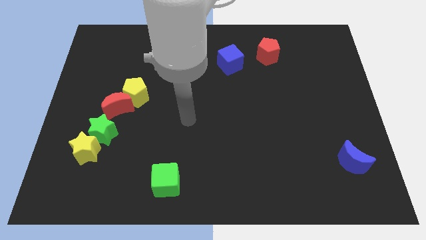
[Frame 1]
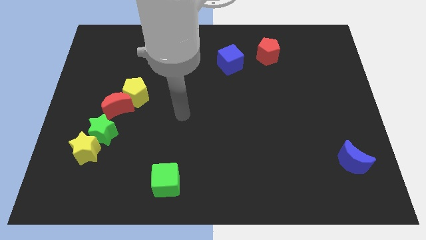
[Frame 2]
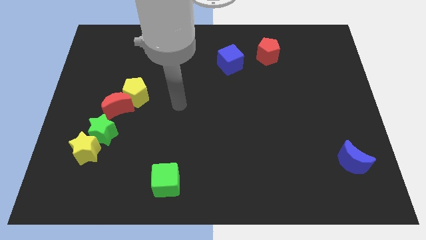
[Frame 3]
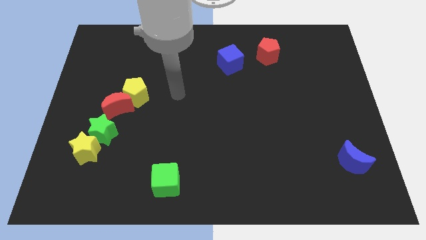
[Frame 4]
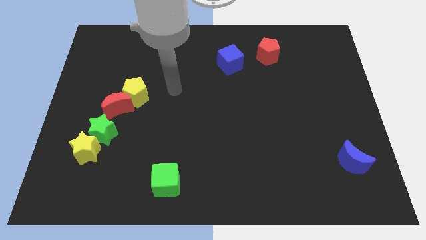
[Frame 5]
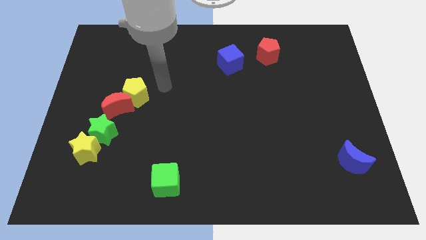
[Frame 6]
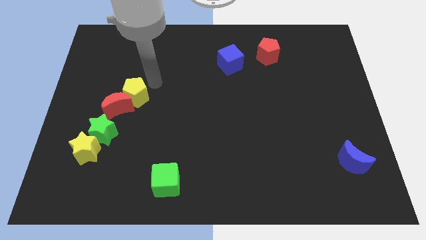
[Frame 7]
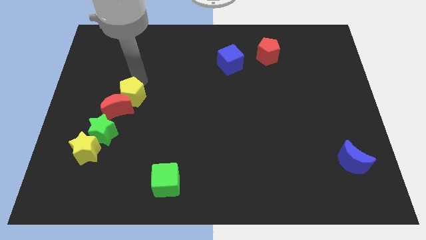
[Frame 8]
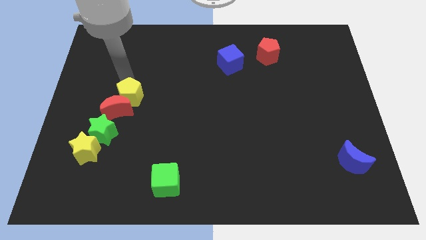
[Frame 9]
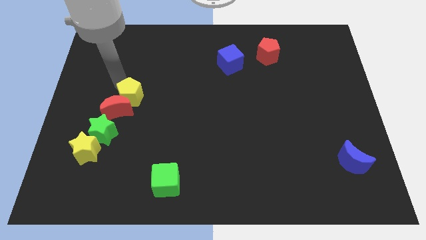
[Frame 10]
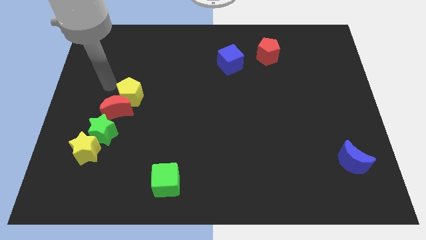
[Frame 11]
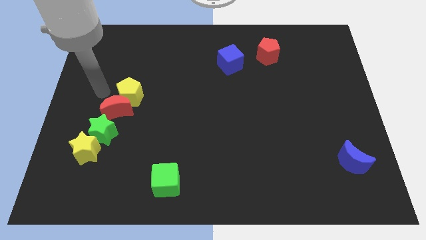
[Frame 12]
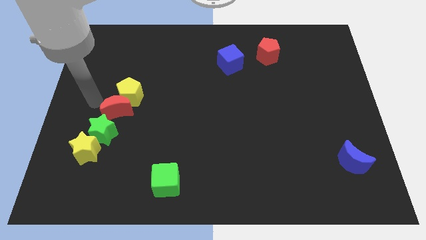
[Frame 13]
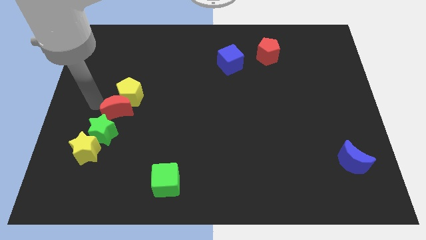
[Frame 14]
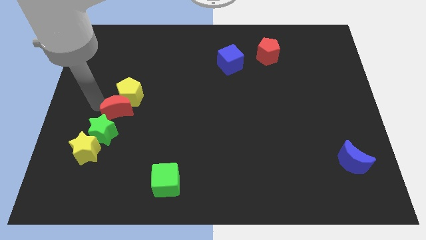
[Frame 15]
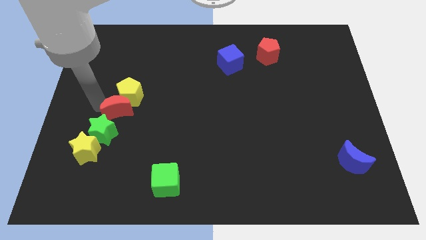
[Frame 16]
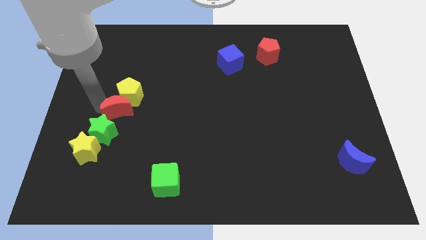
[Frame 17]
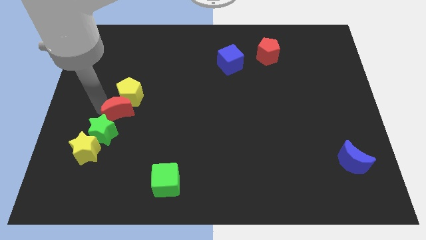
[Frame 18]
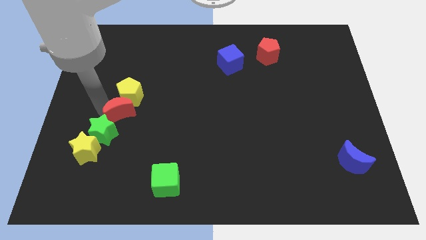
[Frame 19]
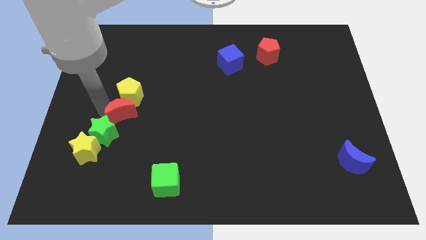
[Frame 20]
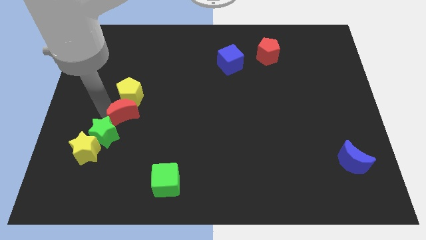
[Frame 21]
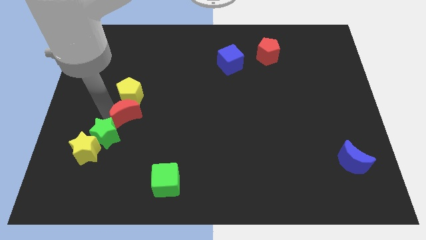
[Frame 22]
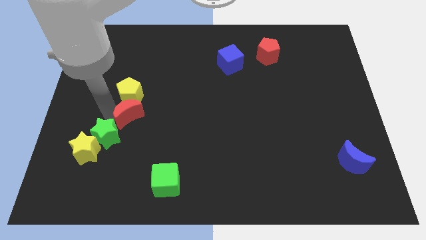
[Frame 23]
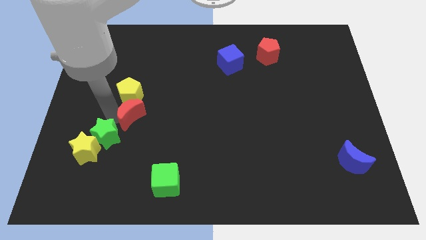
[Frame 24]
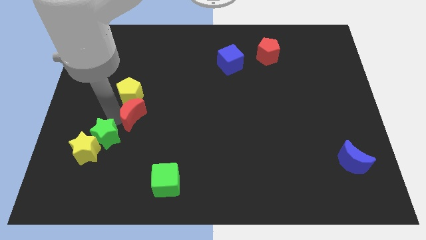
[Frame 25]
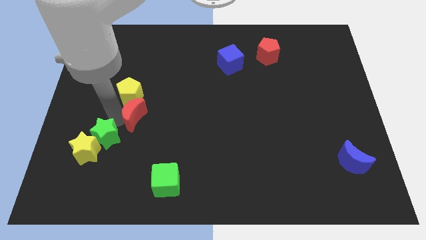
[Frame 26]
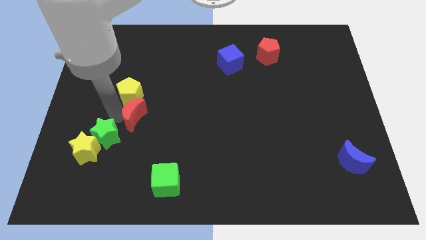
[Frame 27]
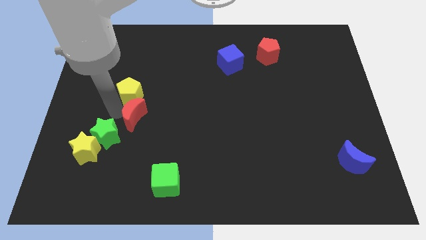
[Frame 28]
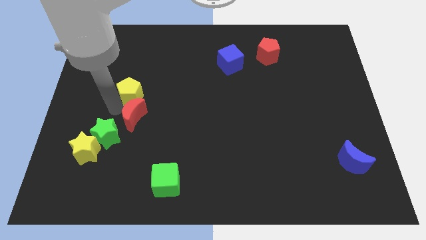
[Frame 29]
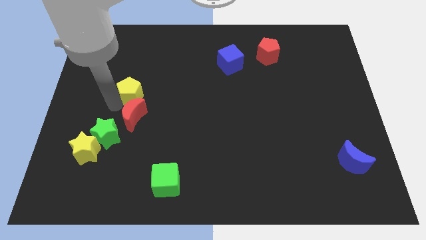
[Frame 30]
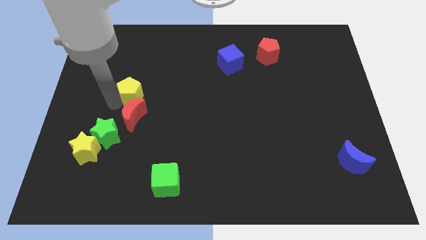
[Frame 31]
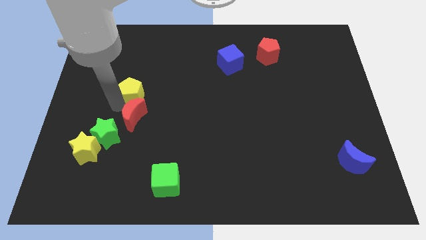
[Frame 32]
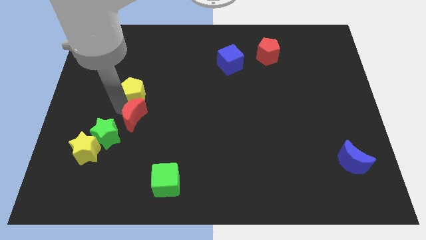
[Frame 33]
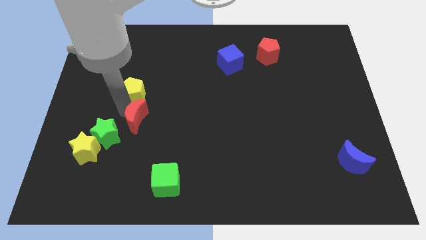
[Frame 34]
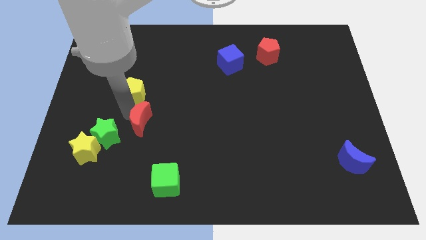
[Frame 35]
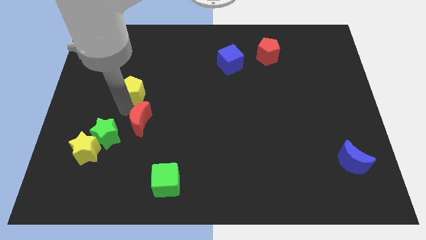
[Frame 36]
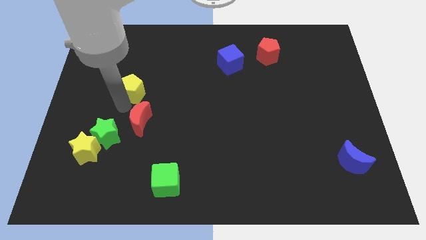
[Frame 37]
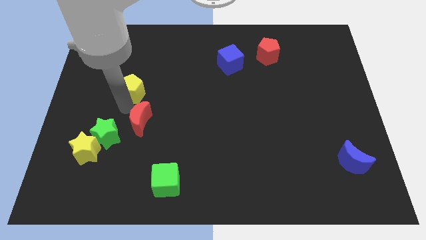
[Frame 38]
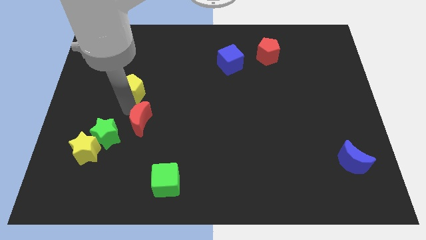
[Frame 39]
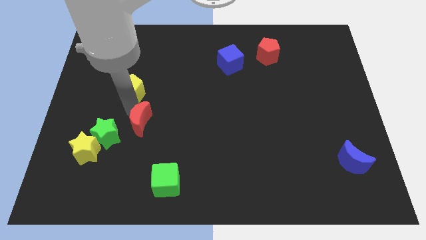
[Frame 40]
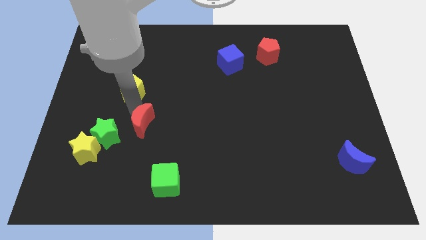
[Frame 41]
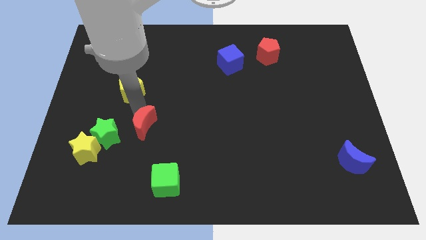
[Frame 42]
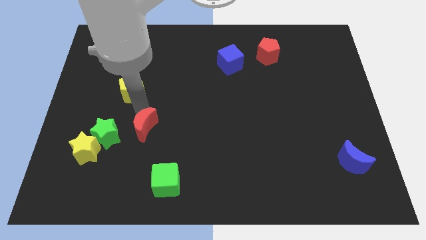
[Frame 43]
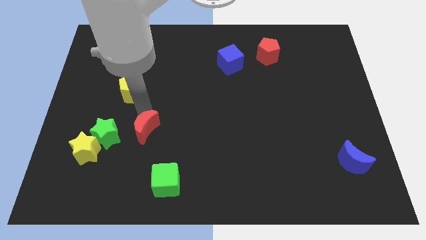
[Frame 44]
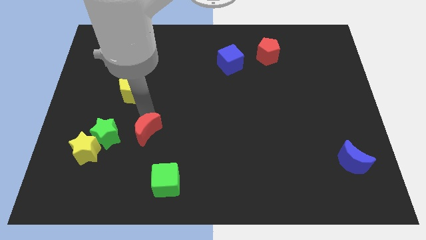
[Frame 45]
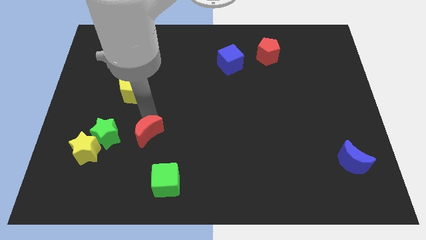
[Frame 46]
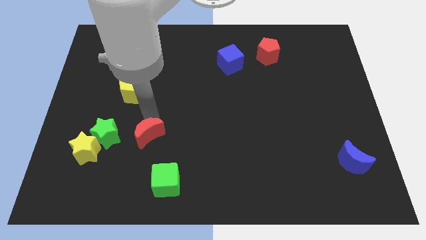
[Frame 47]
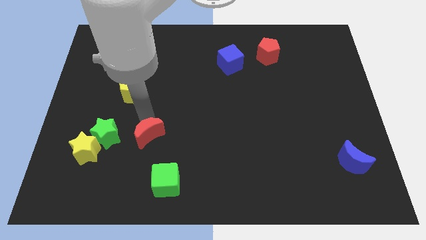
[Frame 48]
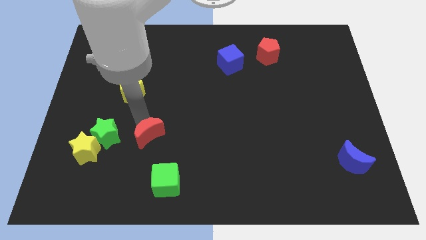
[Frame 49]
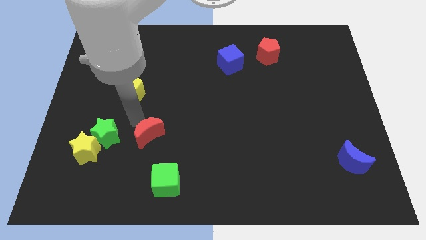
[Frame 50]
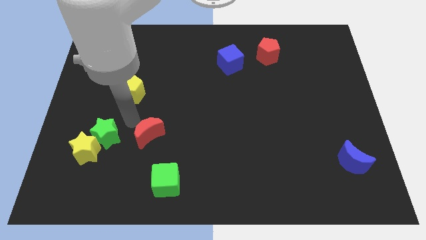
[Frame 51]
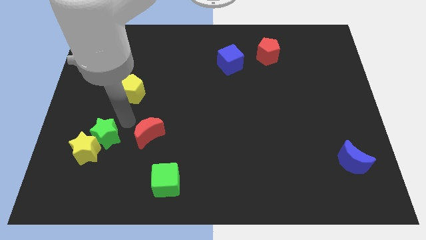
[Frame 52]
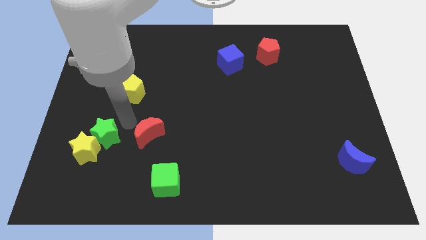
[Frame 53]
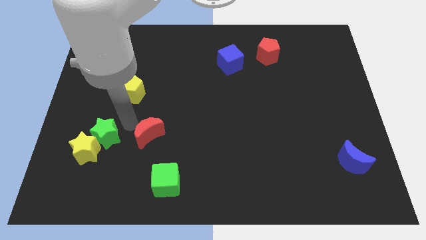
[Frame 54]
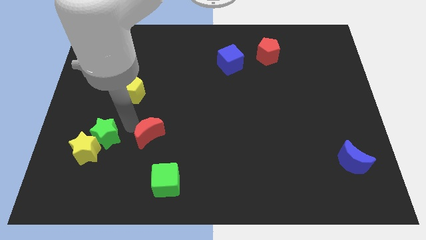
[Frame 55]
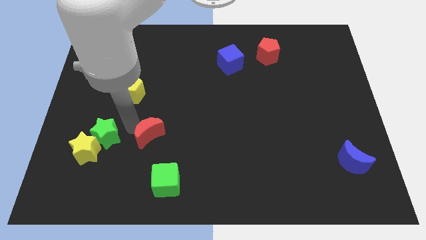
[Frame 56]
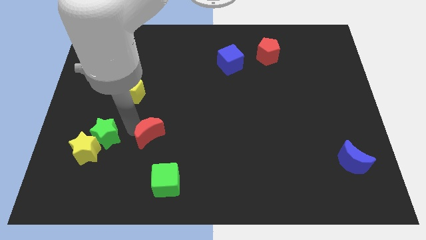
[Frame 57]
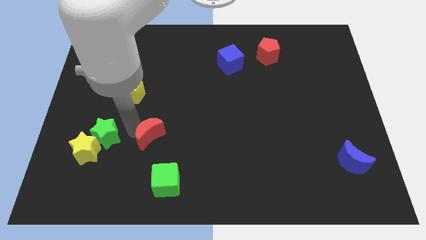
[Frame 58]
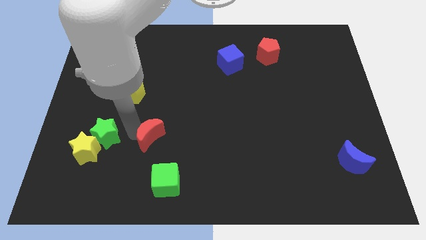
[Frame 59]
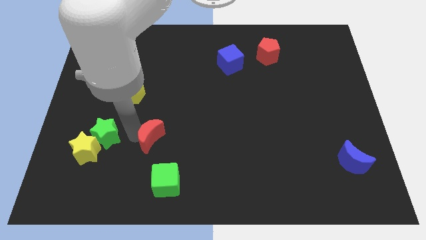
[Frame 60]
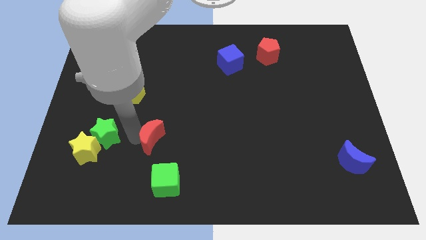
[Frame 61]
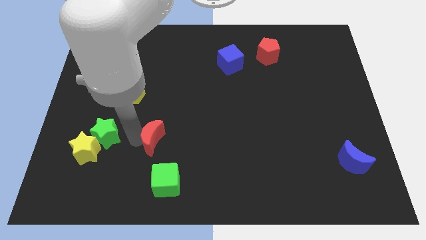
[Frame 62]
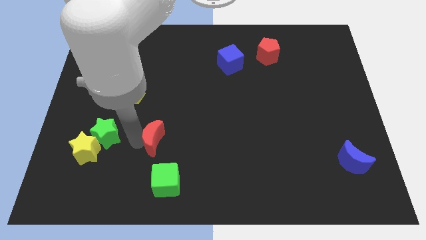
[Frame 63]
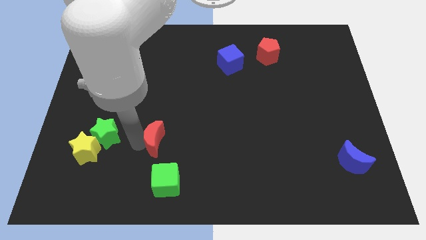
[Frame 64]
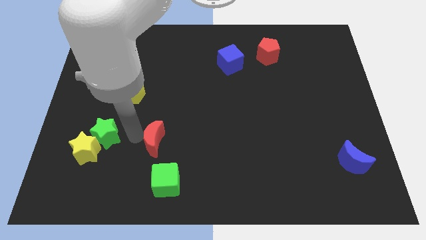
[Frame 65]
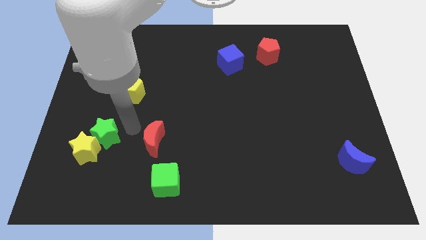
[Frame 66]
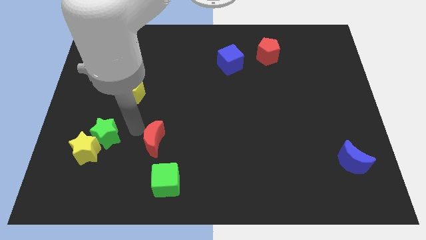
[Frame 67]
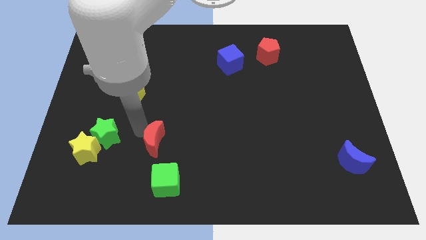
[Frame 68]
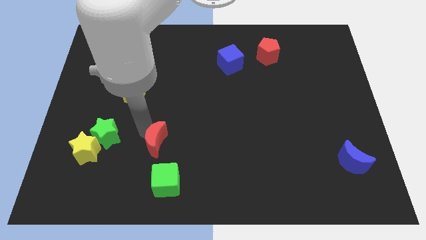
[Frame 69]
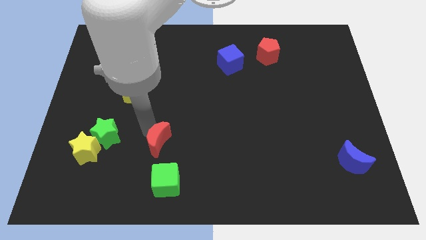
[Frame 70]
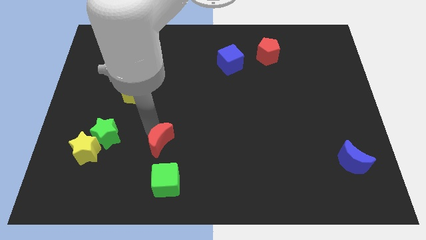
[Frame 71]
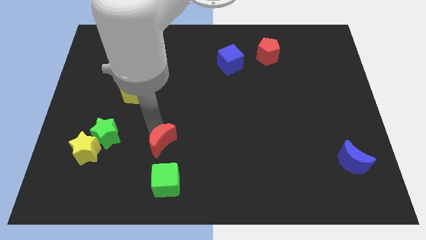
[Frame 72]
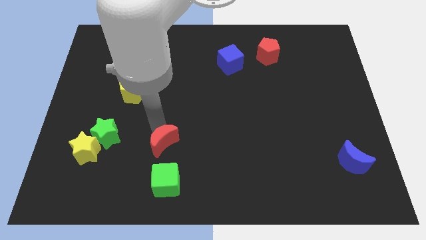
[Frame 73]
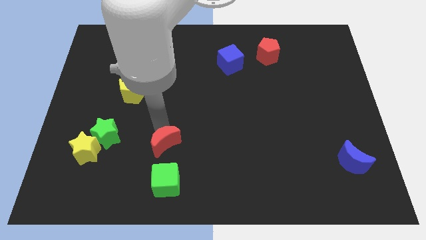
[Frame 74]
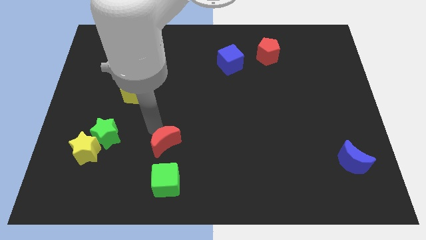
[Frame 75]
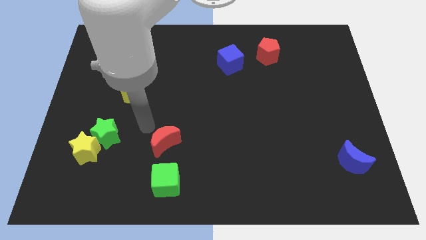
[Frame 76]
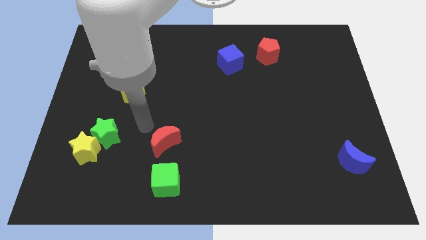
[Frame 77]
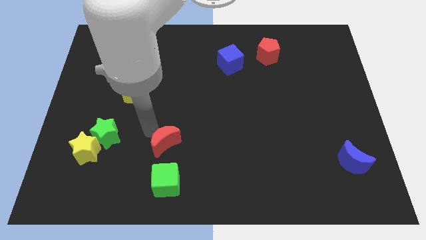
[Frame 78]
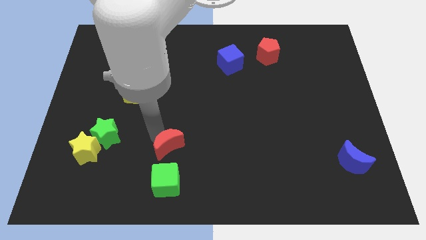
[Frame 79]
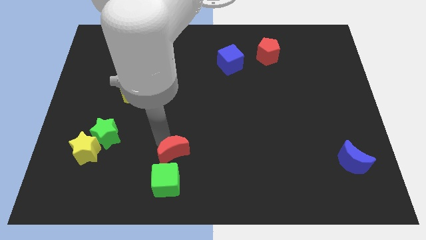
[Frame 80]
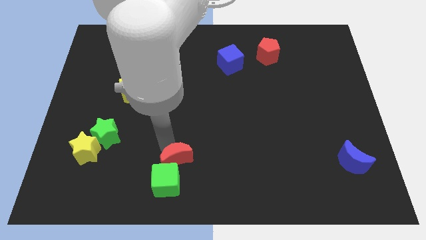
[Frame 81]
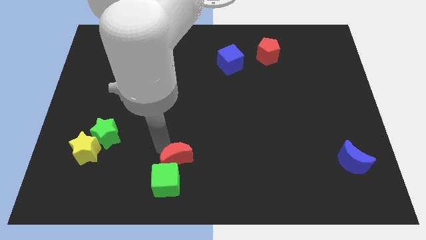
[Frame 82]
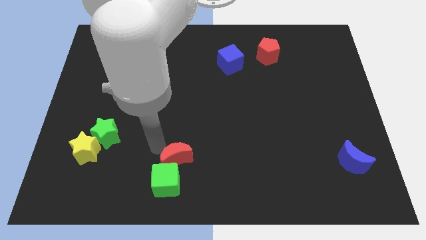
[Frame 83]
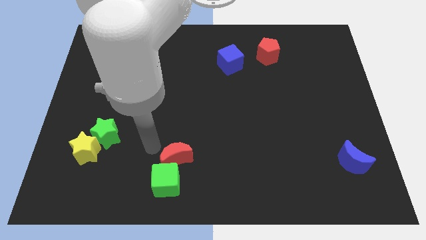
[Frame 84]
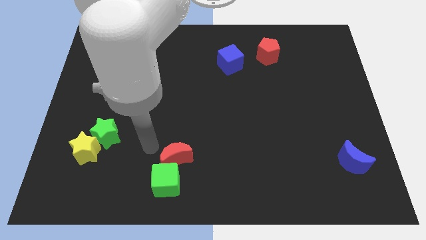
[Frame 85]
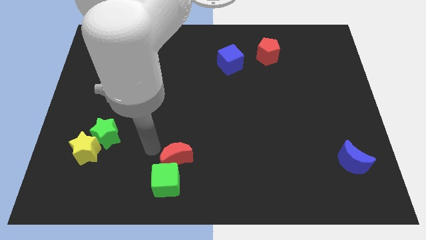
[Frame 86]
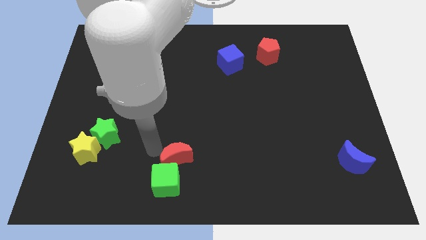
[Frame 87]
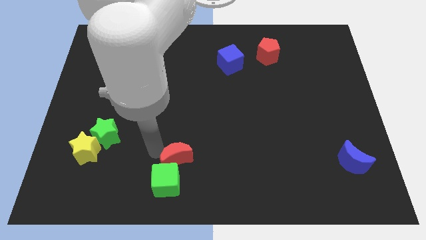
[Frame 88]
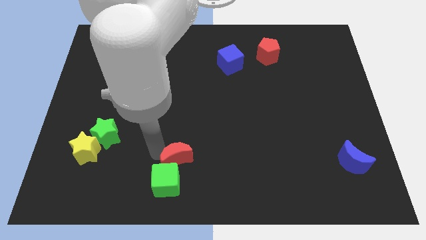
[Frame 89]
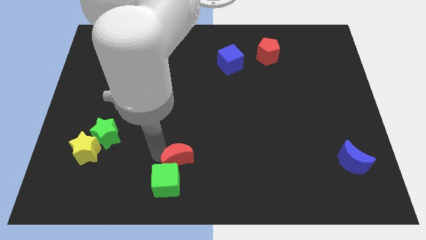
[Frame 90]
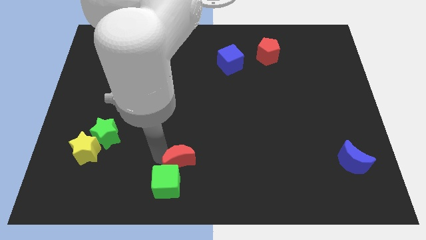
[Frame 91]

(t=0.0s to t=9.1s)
push the red moon to the bottom side
